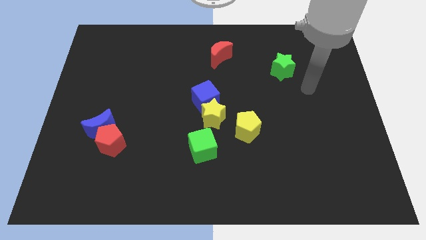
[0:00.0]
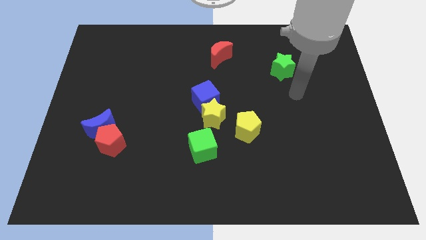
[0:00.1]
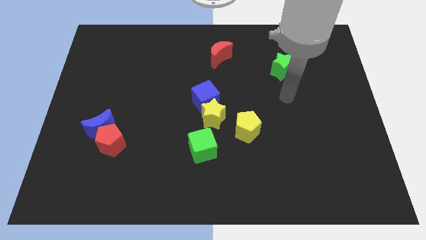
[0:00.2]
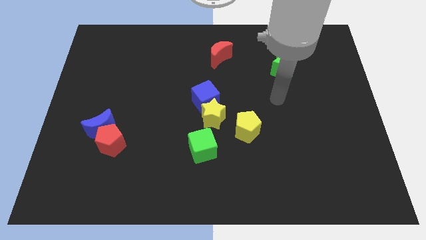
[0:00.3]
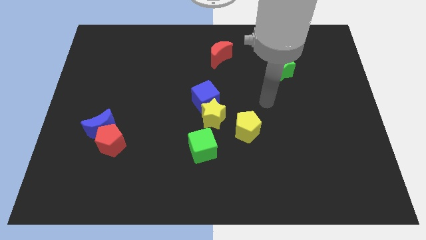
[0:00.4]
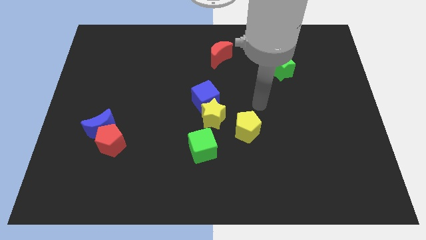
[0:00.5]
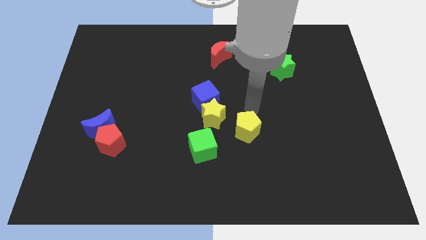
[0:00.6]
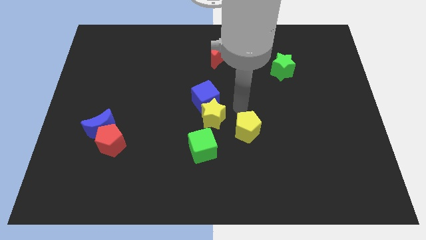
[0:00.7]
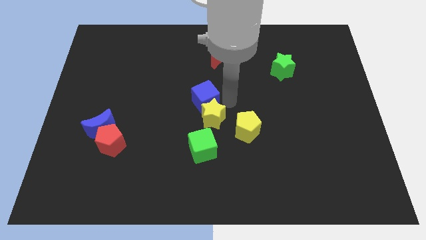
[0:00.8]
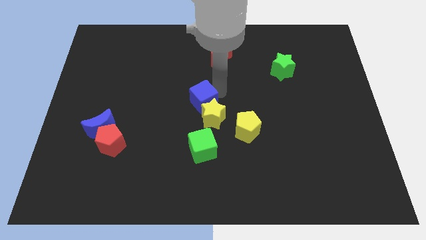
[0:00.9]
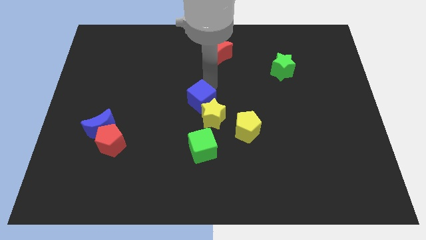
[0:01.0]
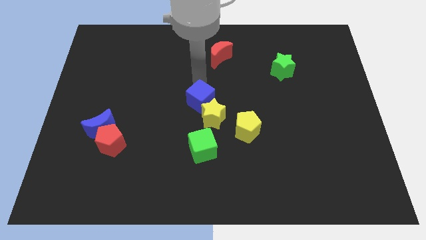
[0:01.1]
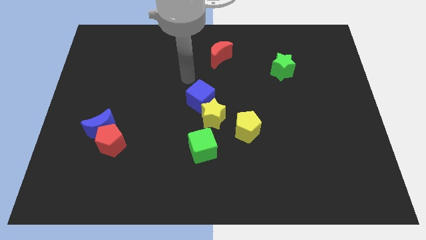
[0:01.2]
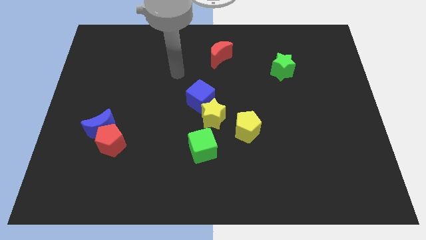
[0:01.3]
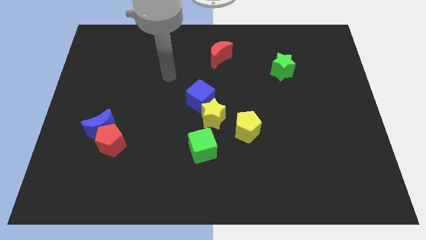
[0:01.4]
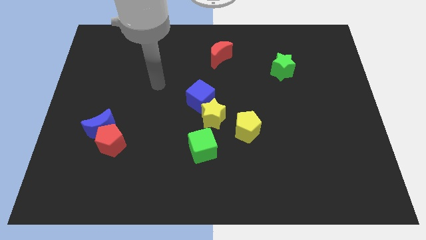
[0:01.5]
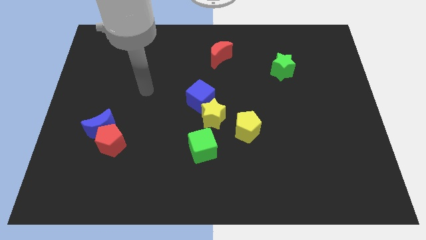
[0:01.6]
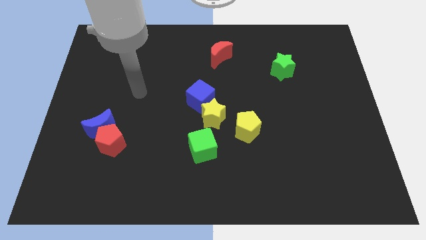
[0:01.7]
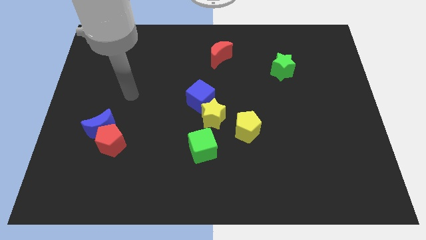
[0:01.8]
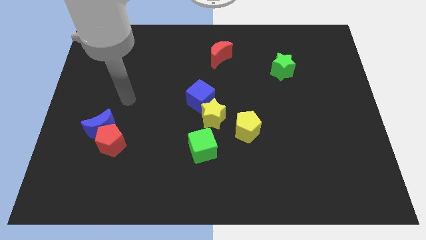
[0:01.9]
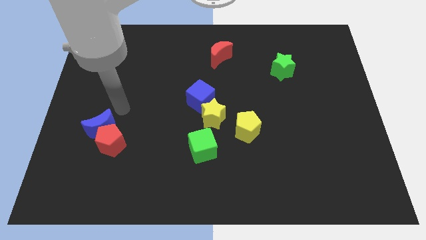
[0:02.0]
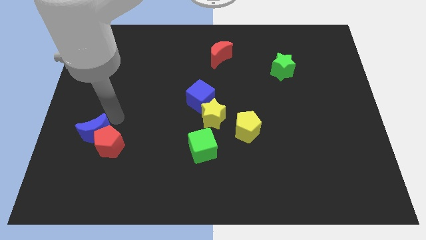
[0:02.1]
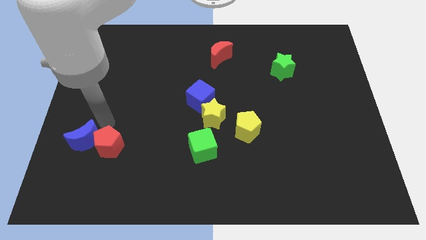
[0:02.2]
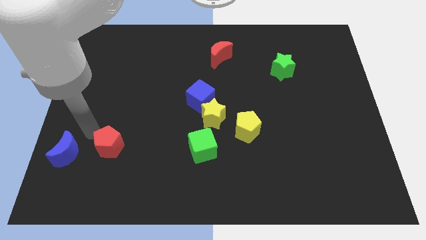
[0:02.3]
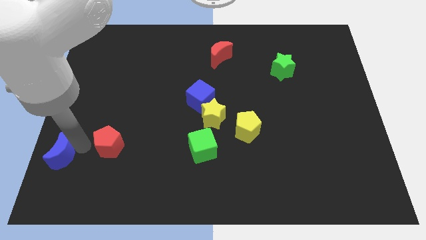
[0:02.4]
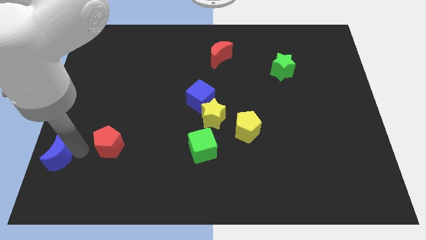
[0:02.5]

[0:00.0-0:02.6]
move the red pentagon away from the blue moon

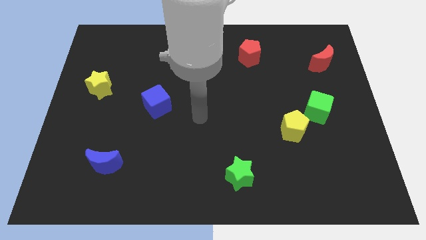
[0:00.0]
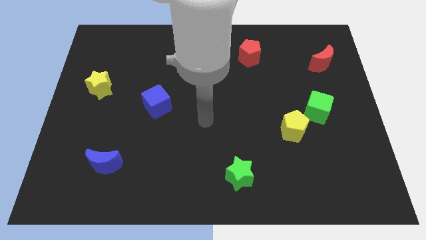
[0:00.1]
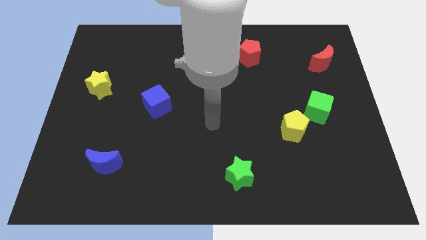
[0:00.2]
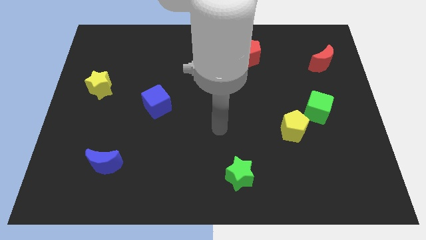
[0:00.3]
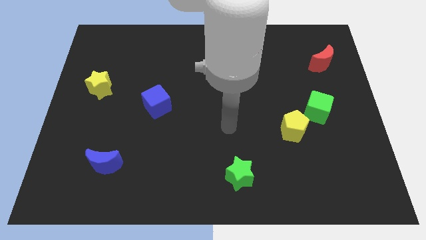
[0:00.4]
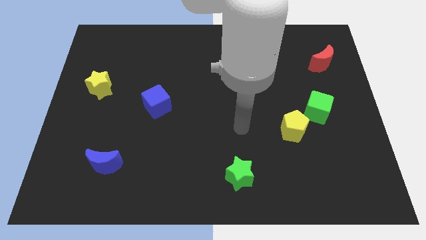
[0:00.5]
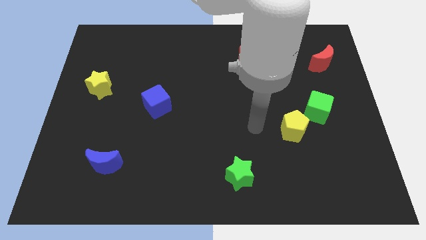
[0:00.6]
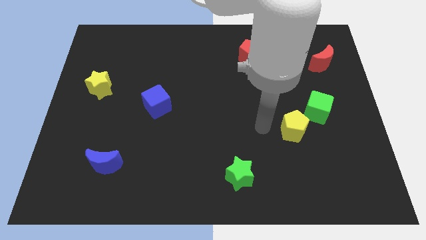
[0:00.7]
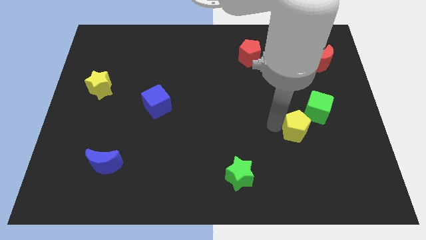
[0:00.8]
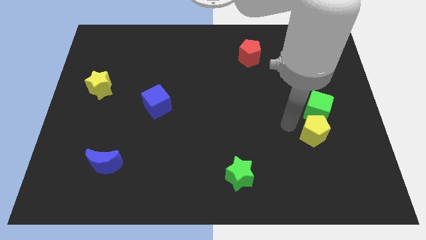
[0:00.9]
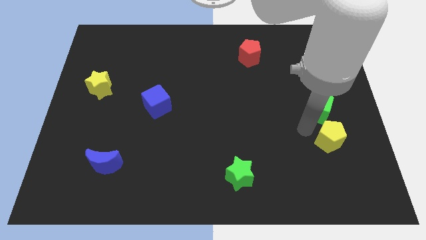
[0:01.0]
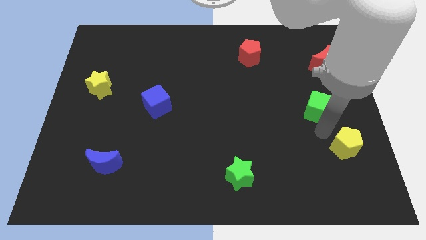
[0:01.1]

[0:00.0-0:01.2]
separate the green cube from the yellow pentagon

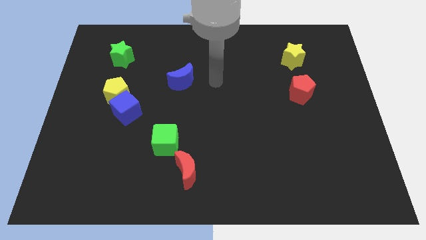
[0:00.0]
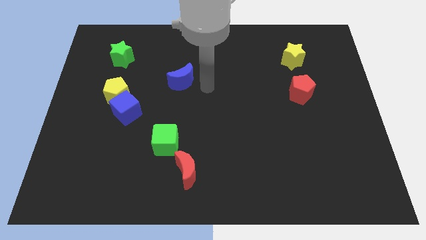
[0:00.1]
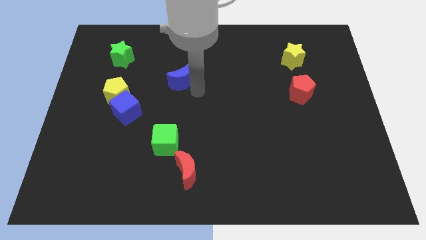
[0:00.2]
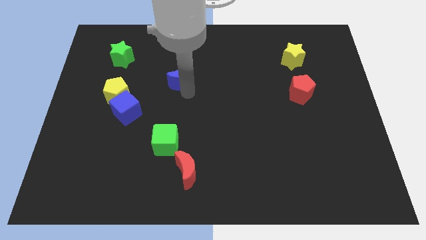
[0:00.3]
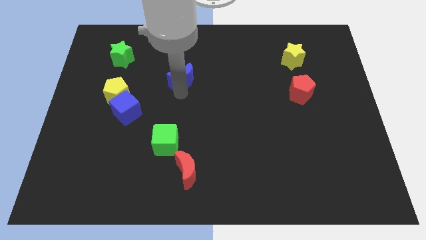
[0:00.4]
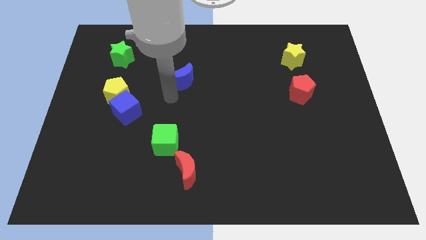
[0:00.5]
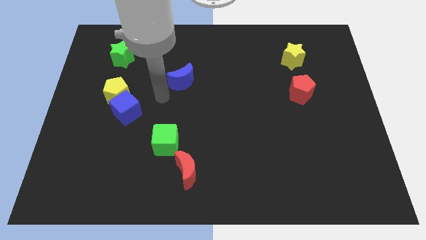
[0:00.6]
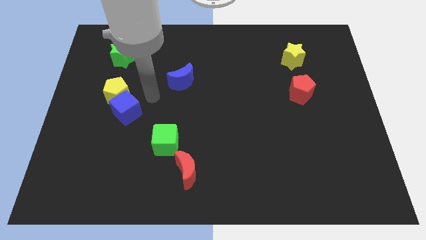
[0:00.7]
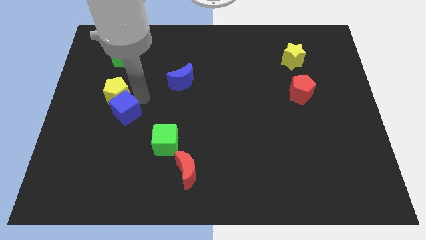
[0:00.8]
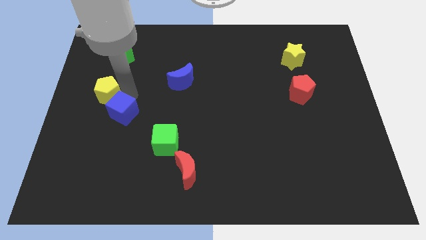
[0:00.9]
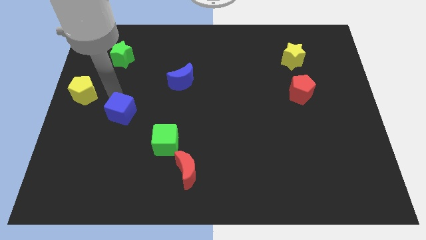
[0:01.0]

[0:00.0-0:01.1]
separate the blue cube from the yellow pentagon

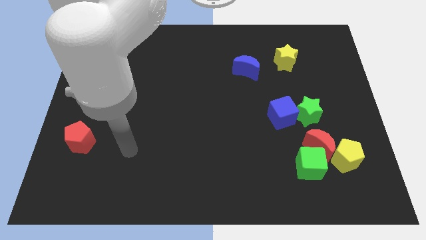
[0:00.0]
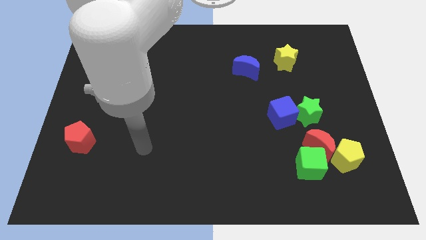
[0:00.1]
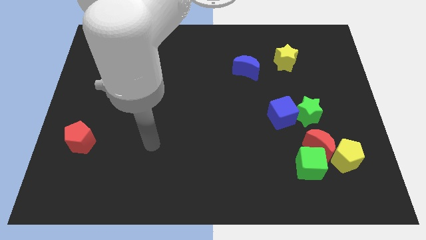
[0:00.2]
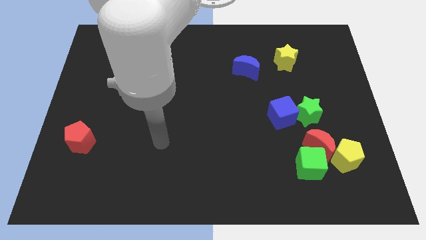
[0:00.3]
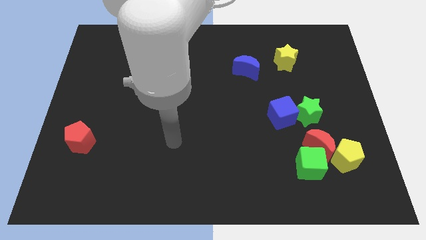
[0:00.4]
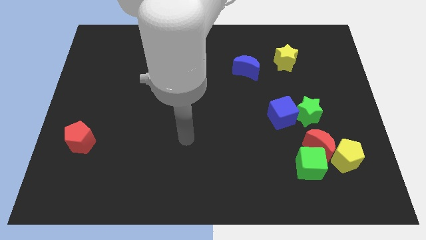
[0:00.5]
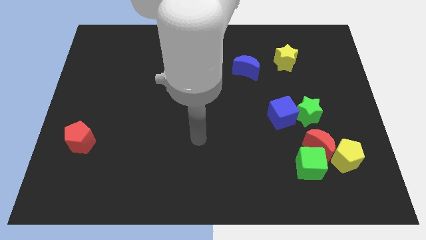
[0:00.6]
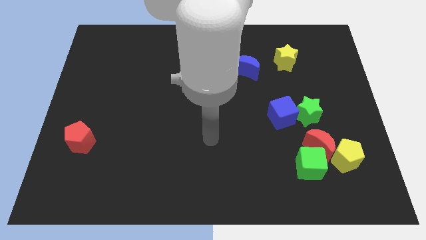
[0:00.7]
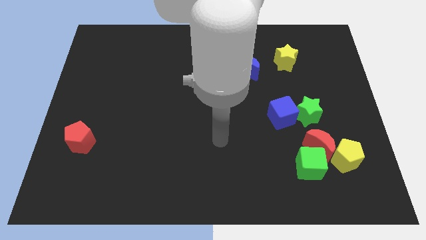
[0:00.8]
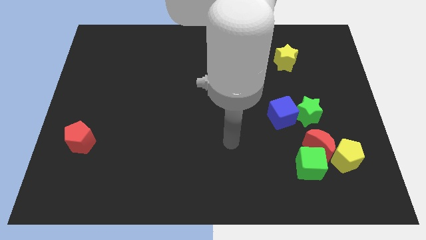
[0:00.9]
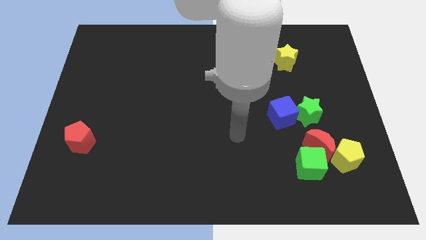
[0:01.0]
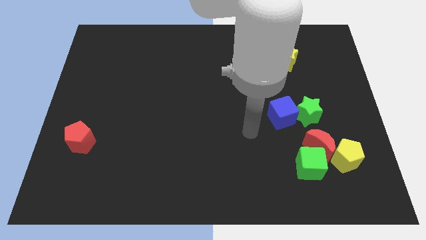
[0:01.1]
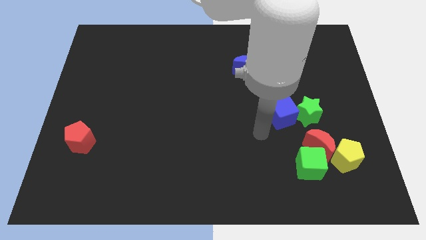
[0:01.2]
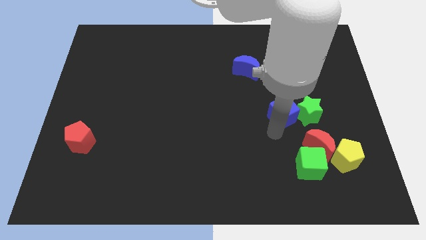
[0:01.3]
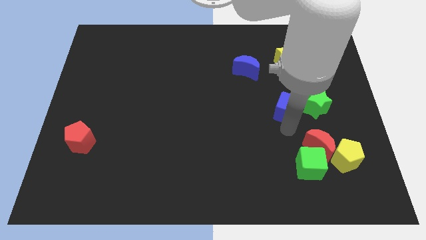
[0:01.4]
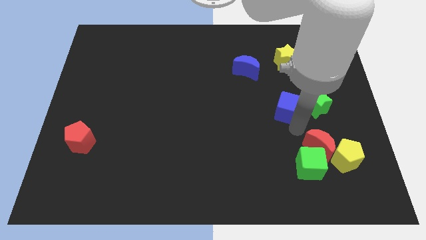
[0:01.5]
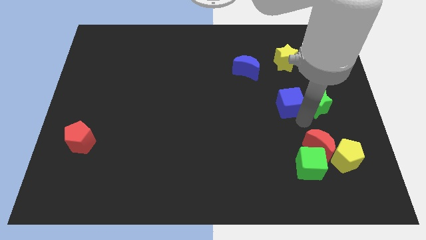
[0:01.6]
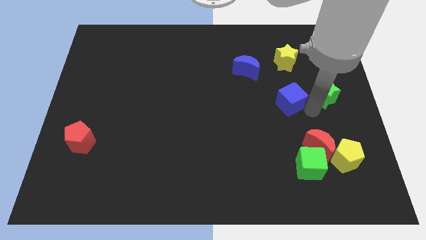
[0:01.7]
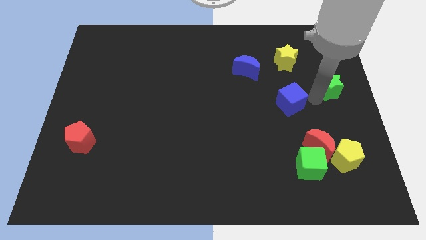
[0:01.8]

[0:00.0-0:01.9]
separate the blue cube from the green star

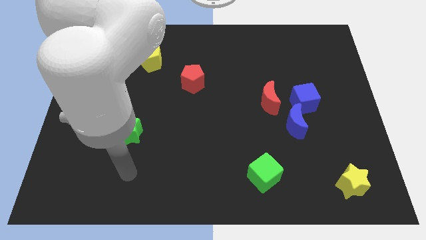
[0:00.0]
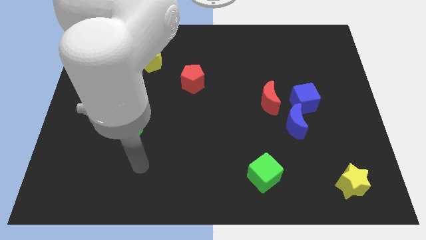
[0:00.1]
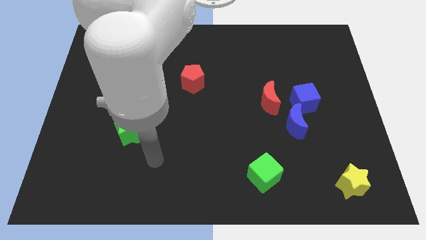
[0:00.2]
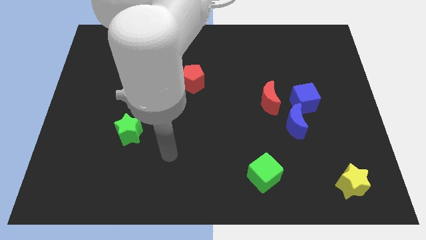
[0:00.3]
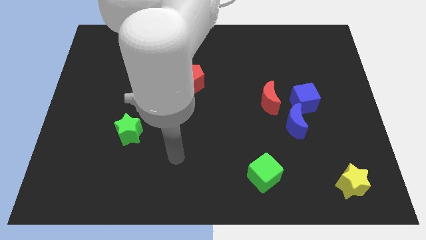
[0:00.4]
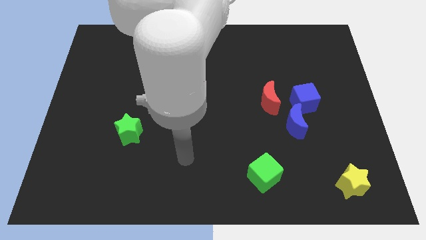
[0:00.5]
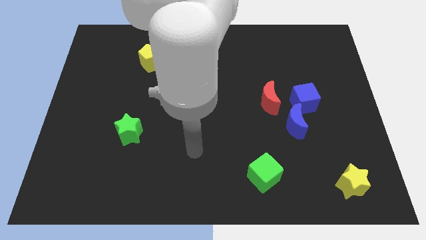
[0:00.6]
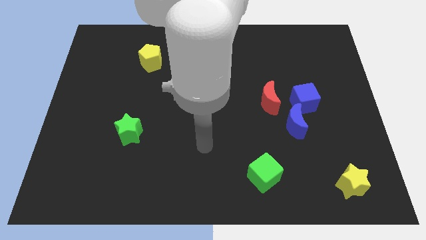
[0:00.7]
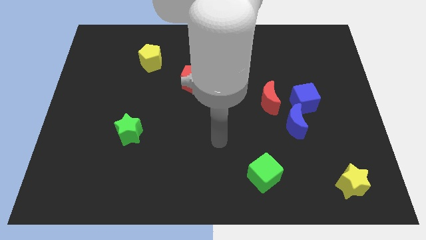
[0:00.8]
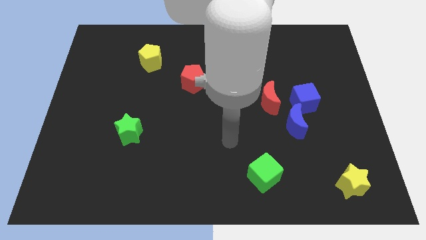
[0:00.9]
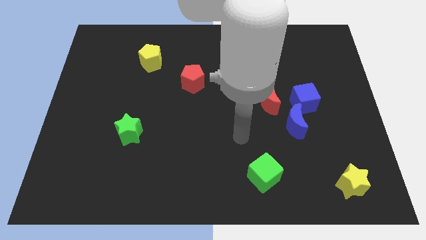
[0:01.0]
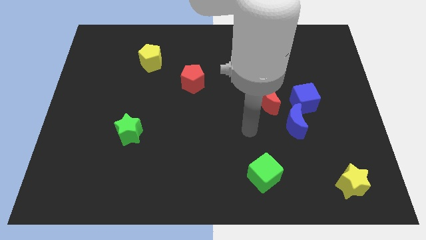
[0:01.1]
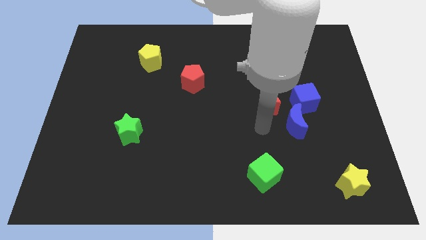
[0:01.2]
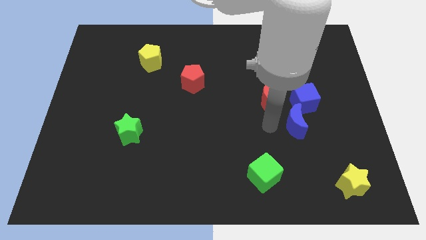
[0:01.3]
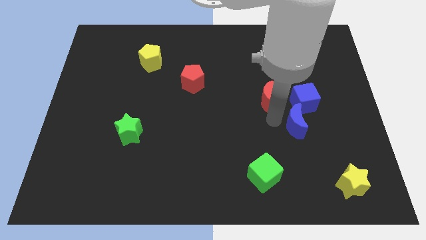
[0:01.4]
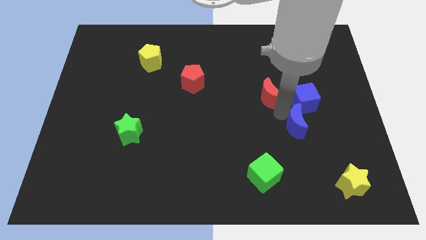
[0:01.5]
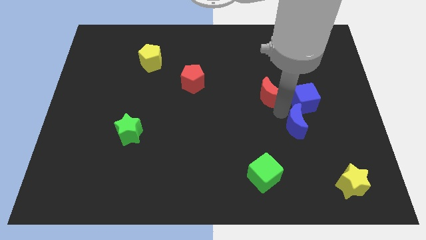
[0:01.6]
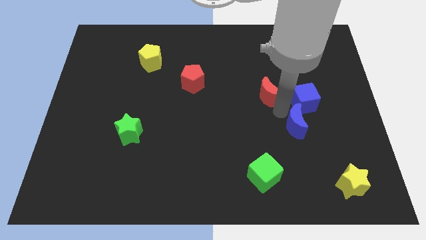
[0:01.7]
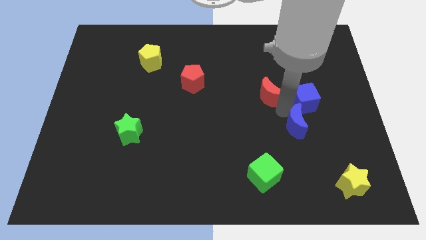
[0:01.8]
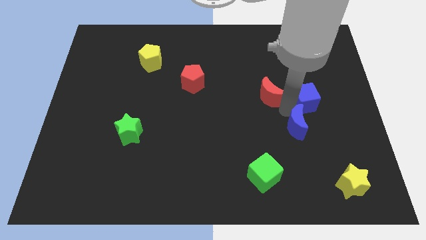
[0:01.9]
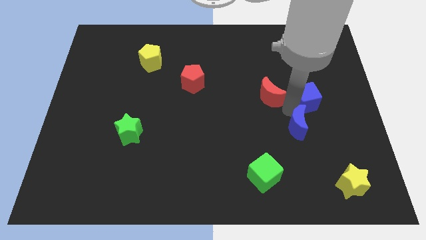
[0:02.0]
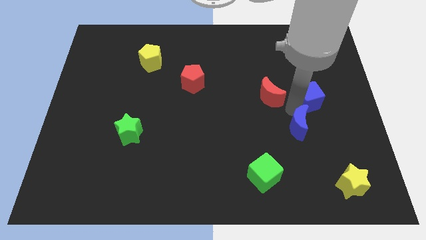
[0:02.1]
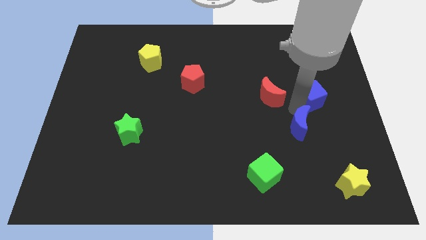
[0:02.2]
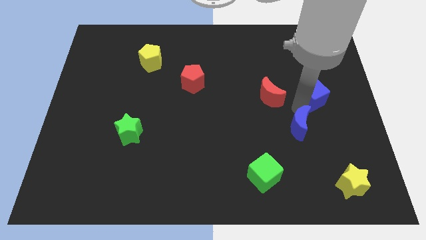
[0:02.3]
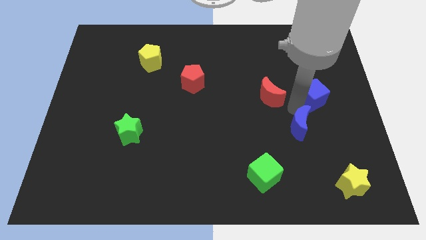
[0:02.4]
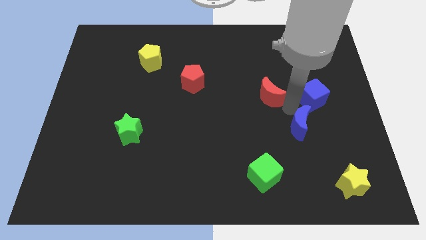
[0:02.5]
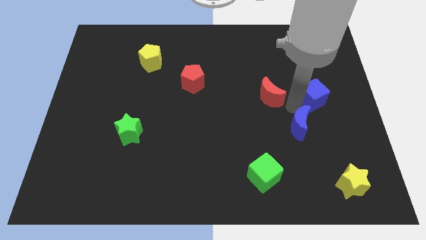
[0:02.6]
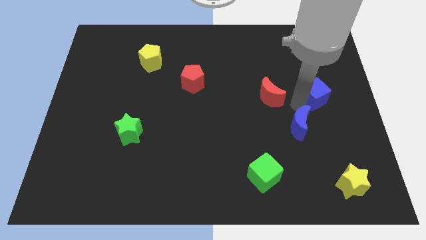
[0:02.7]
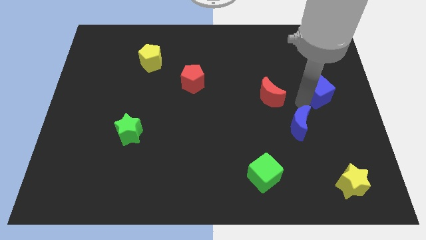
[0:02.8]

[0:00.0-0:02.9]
pull the blue cube apart from the blue moon and red moon
